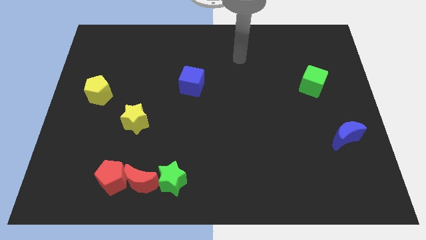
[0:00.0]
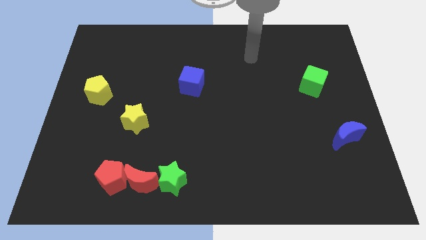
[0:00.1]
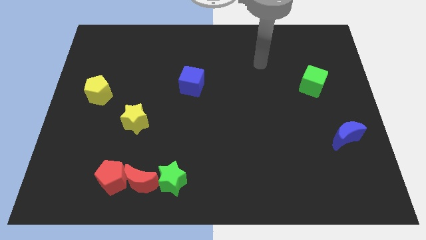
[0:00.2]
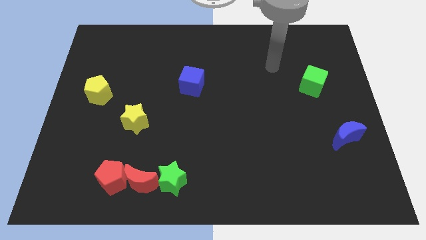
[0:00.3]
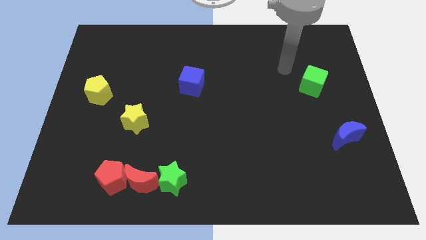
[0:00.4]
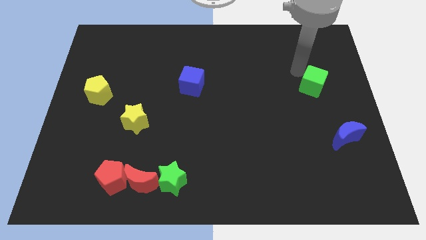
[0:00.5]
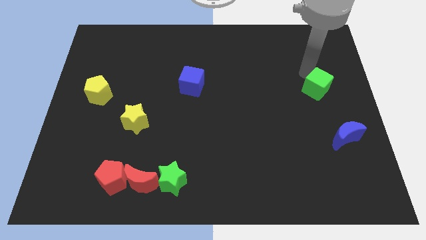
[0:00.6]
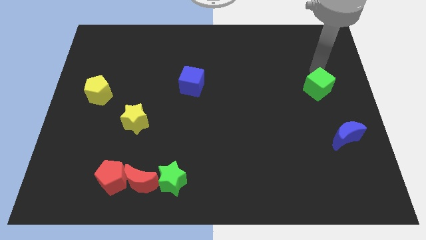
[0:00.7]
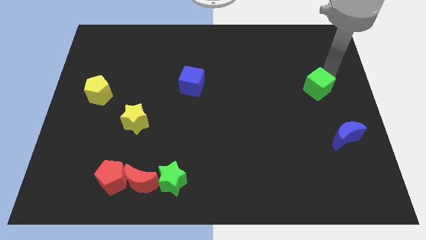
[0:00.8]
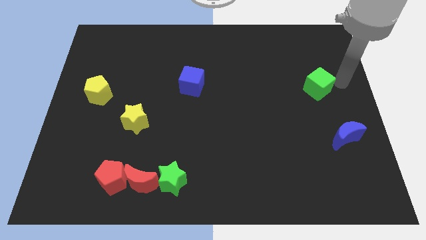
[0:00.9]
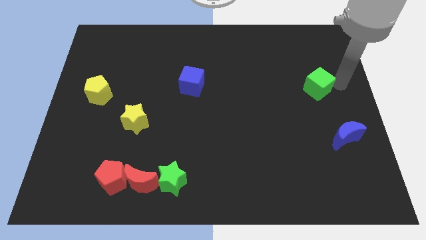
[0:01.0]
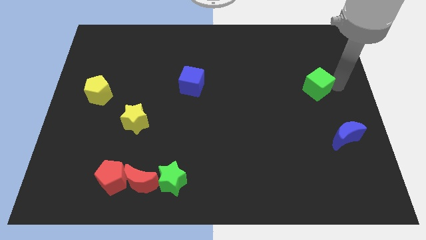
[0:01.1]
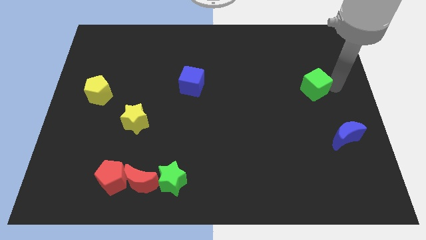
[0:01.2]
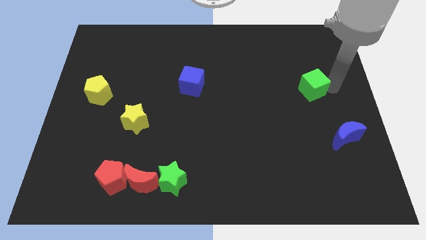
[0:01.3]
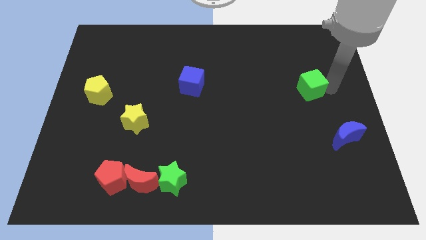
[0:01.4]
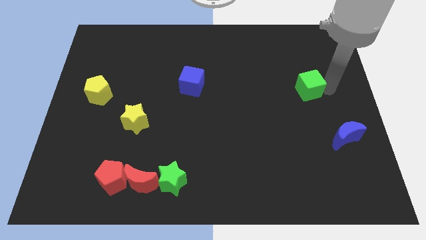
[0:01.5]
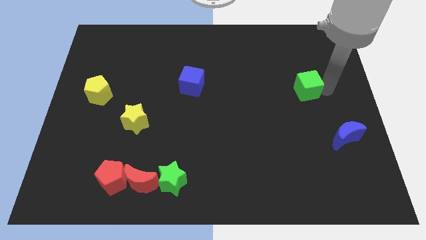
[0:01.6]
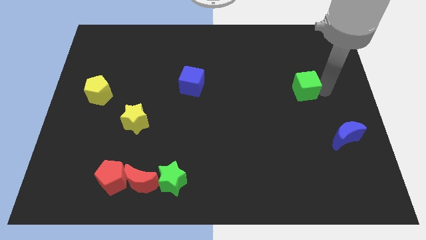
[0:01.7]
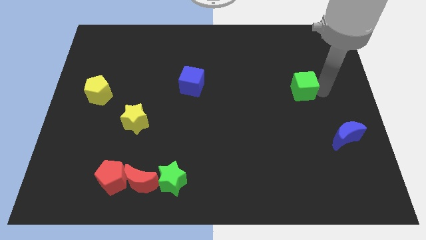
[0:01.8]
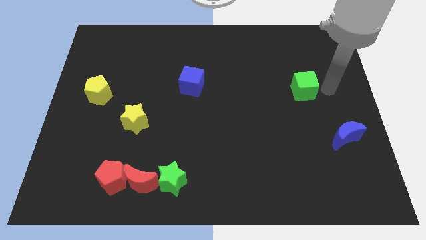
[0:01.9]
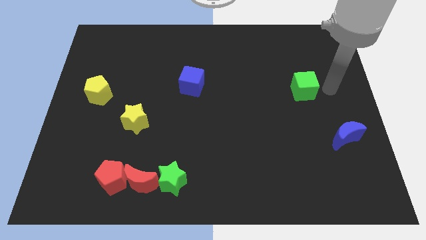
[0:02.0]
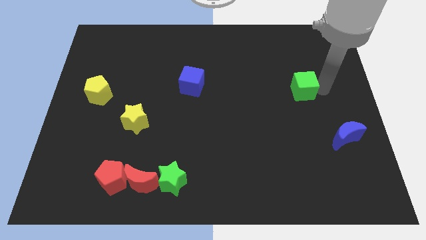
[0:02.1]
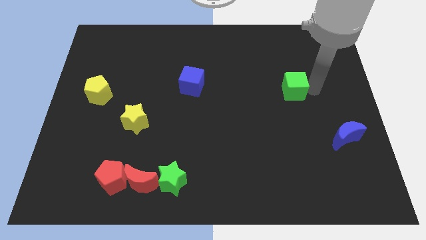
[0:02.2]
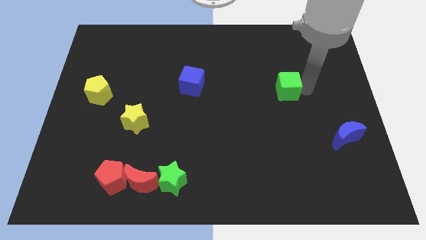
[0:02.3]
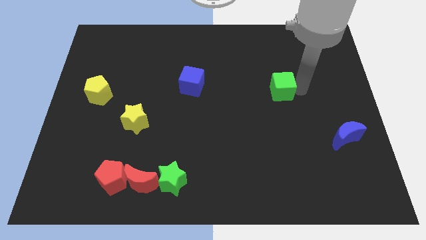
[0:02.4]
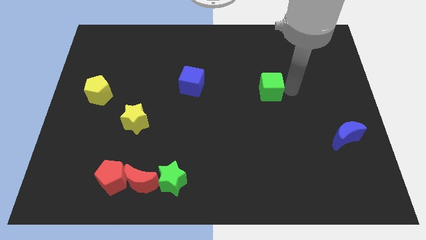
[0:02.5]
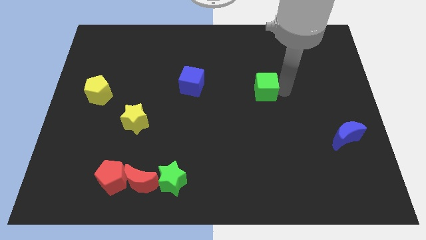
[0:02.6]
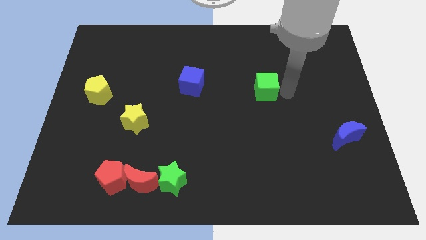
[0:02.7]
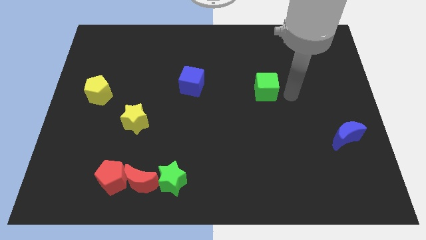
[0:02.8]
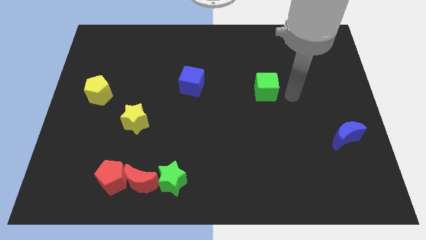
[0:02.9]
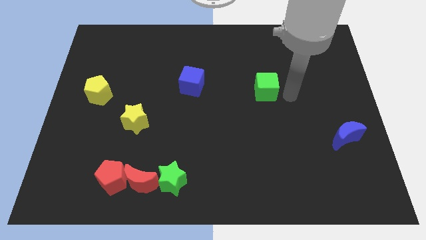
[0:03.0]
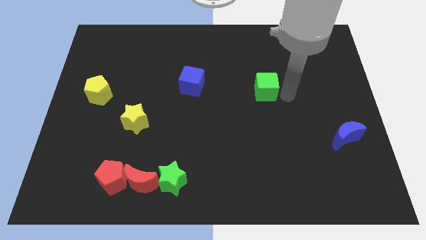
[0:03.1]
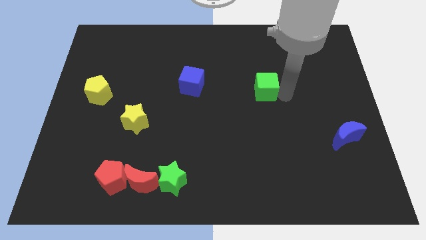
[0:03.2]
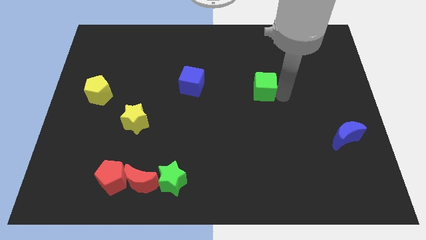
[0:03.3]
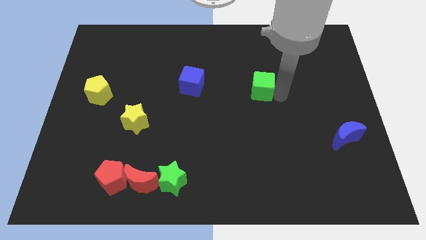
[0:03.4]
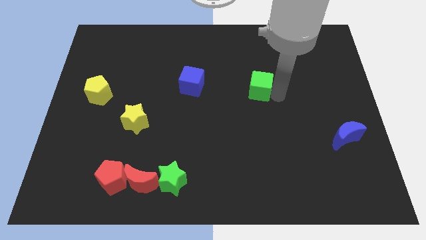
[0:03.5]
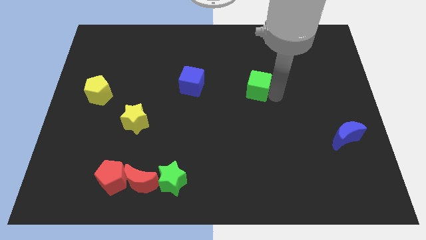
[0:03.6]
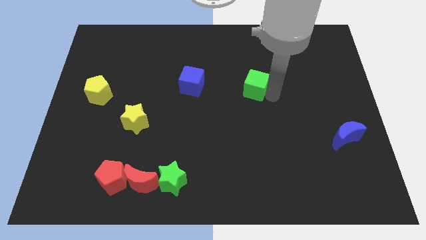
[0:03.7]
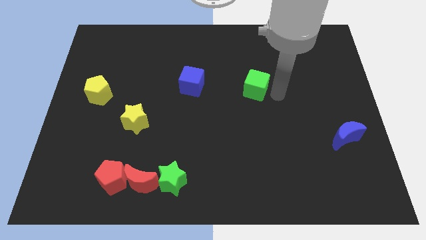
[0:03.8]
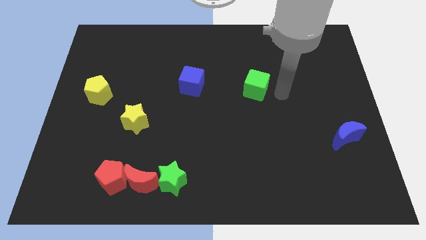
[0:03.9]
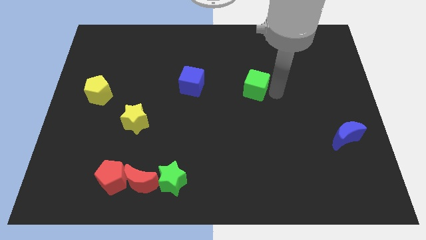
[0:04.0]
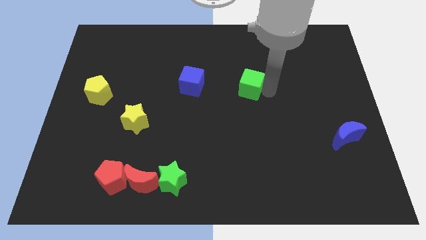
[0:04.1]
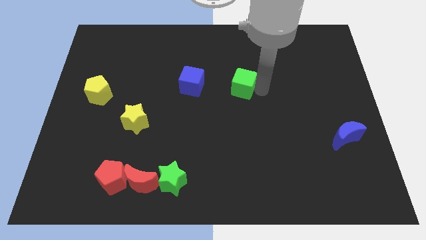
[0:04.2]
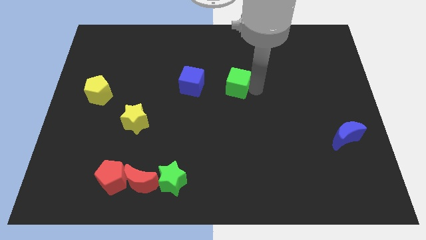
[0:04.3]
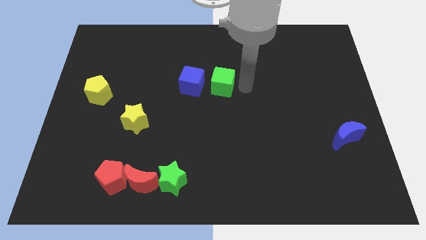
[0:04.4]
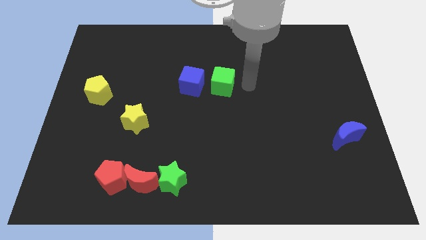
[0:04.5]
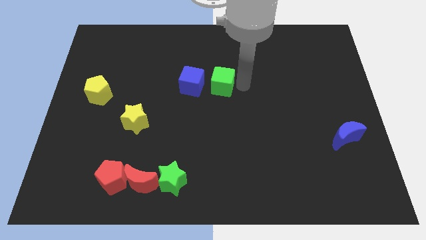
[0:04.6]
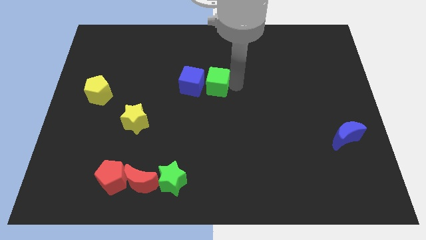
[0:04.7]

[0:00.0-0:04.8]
push the green cube next to the blue cube

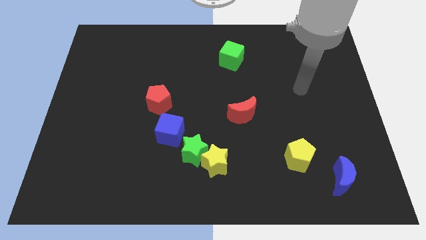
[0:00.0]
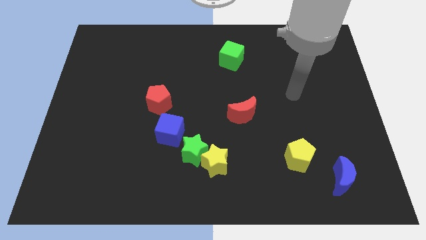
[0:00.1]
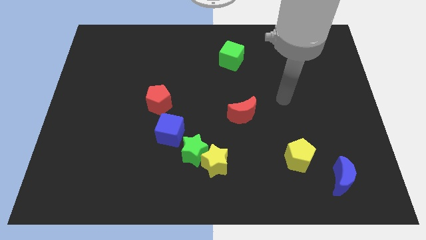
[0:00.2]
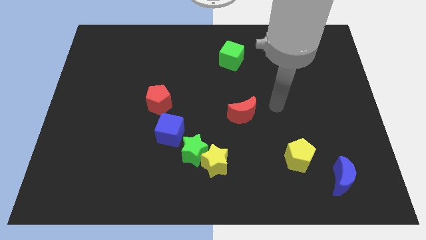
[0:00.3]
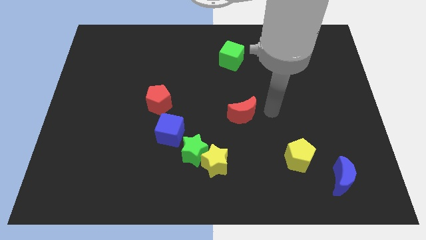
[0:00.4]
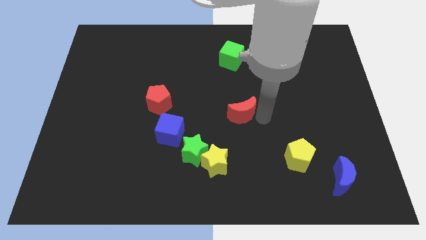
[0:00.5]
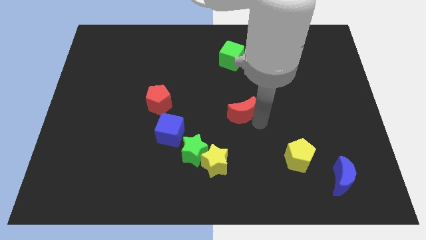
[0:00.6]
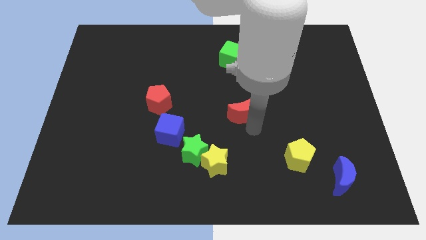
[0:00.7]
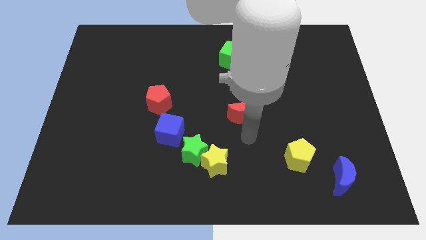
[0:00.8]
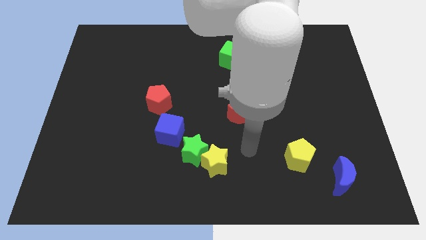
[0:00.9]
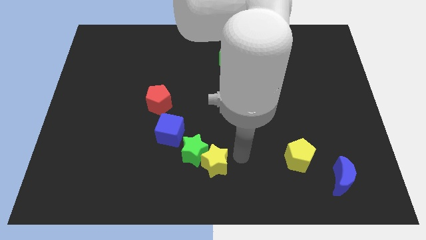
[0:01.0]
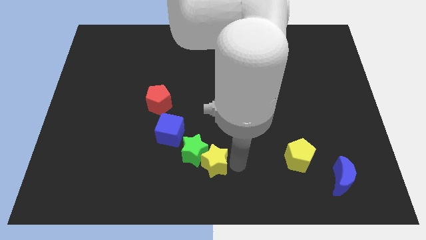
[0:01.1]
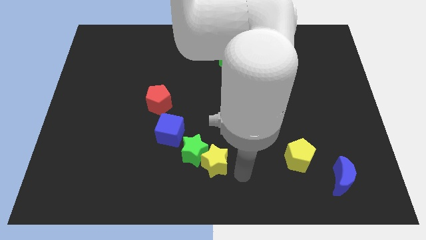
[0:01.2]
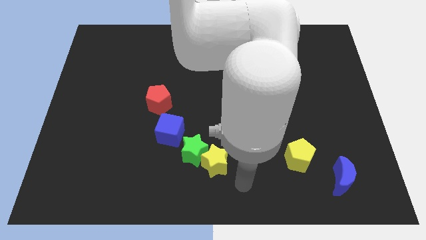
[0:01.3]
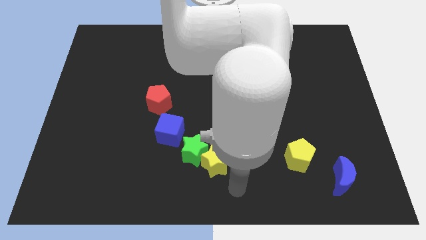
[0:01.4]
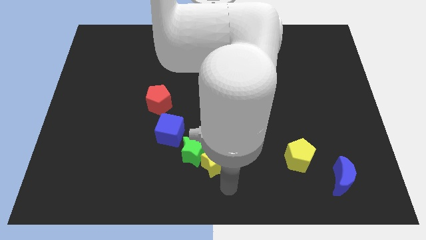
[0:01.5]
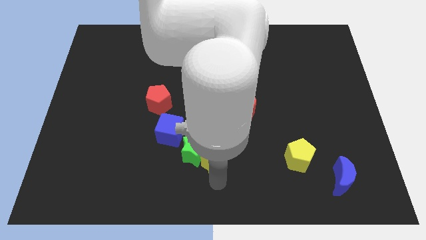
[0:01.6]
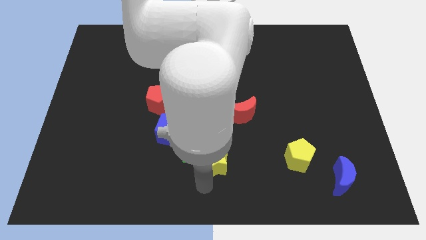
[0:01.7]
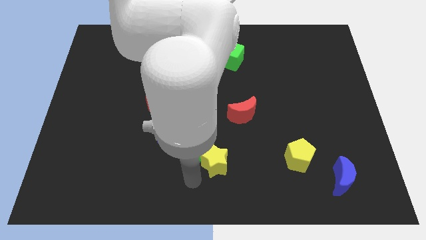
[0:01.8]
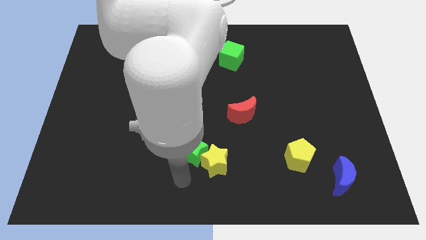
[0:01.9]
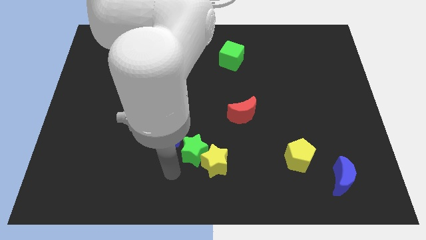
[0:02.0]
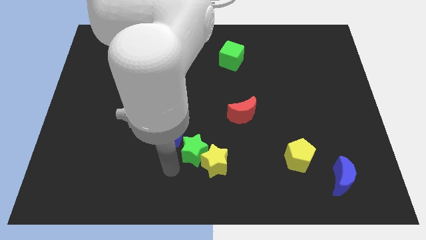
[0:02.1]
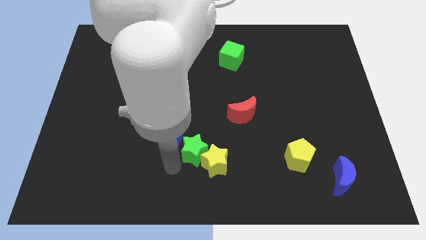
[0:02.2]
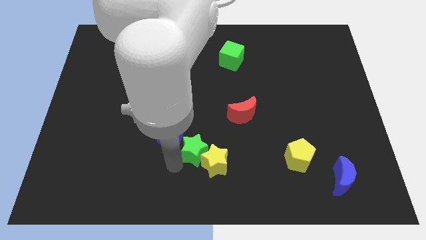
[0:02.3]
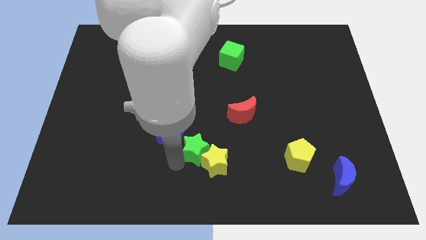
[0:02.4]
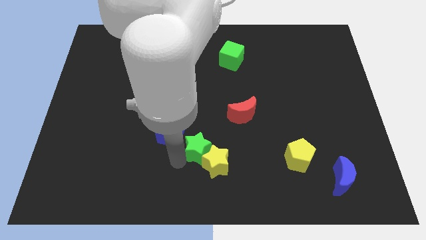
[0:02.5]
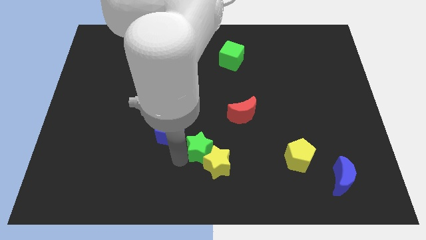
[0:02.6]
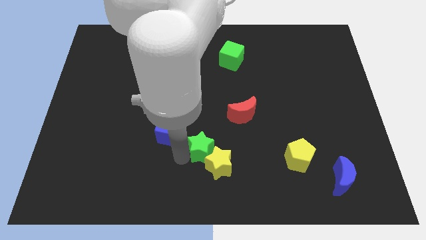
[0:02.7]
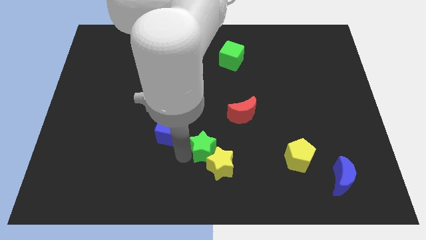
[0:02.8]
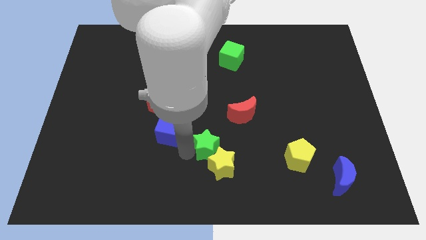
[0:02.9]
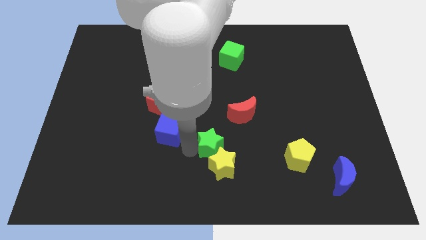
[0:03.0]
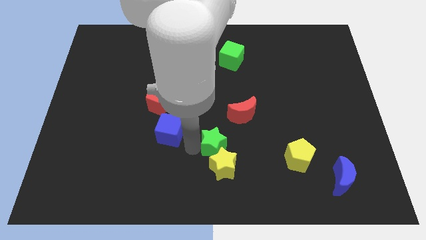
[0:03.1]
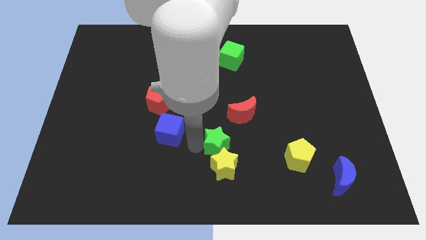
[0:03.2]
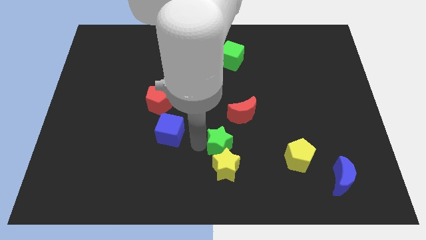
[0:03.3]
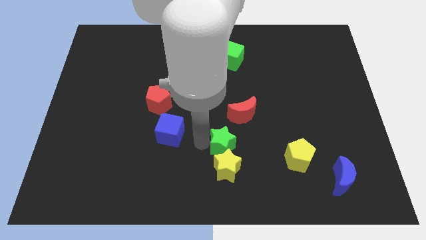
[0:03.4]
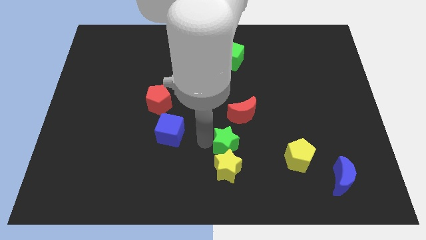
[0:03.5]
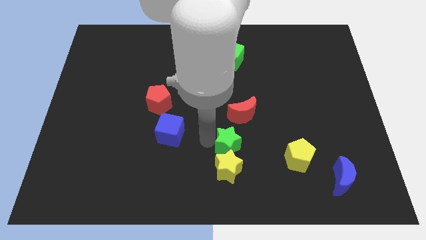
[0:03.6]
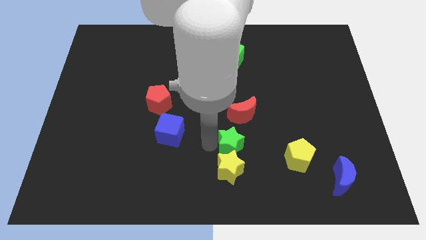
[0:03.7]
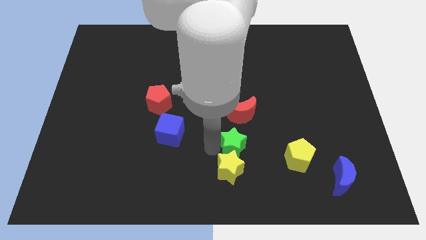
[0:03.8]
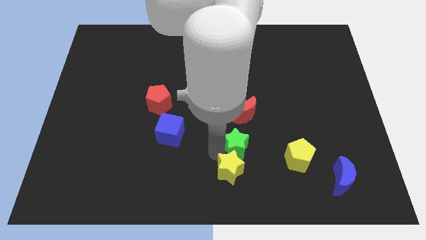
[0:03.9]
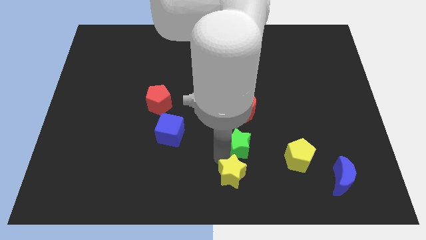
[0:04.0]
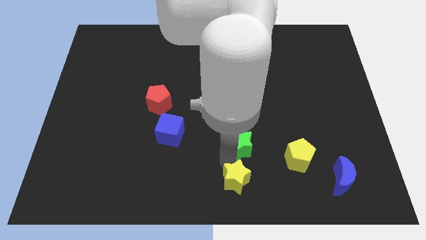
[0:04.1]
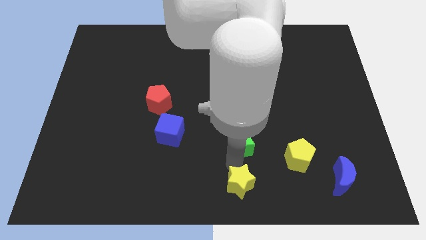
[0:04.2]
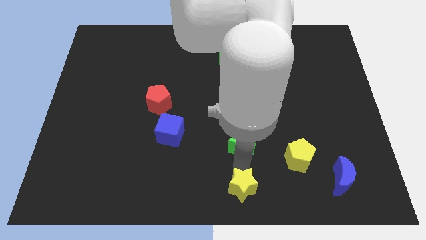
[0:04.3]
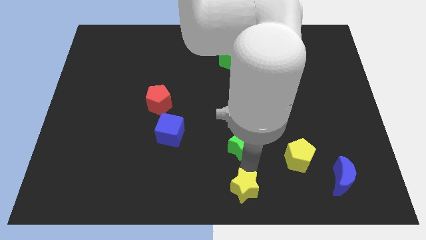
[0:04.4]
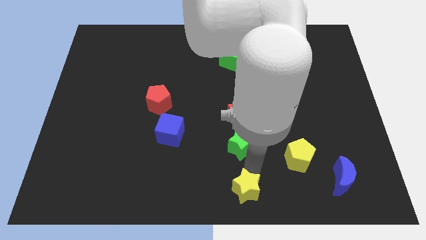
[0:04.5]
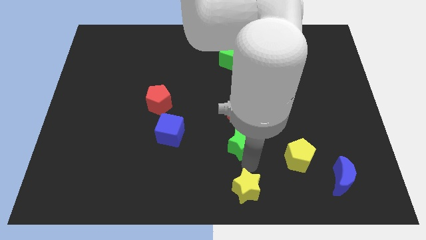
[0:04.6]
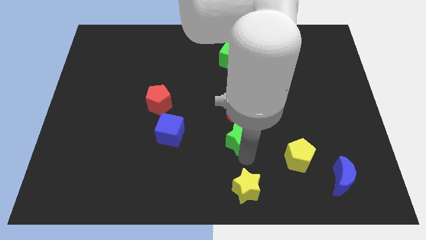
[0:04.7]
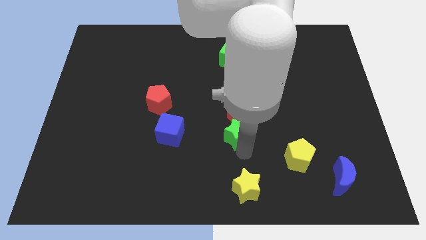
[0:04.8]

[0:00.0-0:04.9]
put the green star towards the red moon
